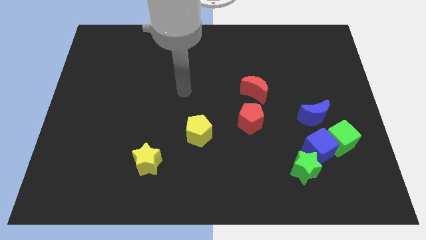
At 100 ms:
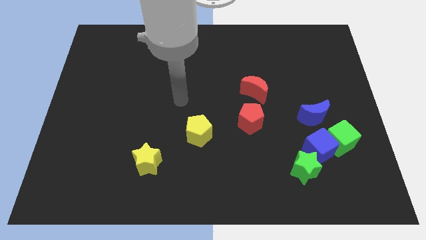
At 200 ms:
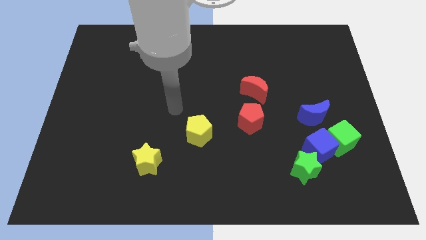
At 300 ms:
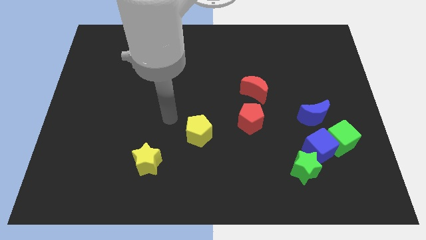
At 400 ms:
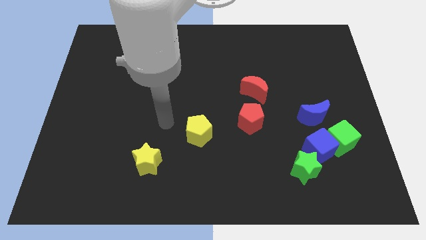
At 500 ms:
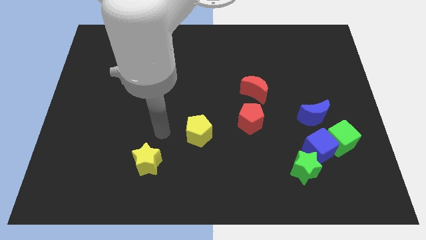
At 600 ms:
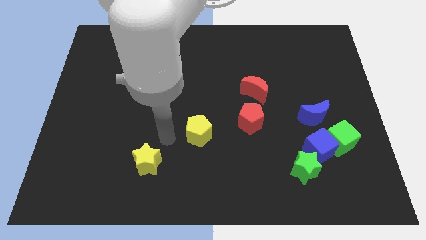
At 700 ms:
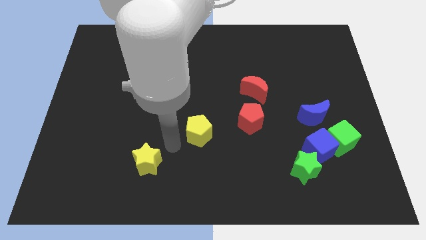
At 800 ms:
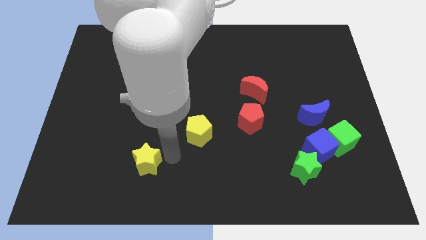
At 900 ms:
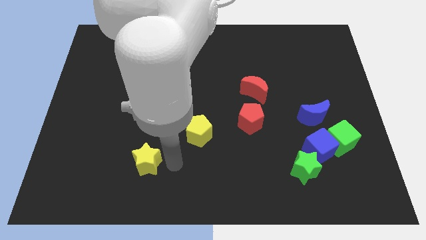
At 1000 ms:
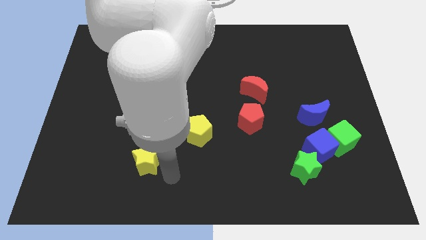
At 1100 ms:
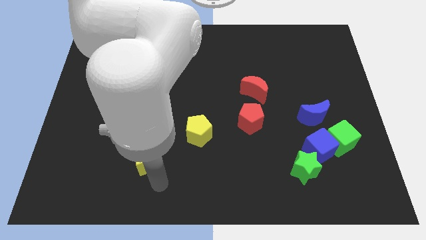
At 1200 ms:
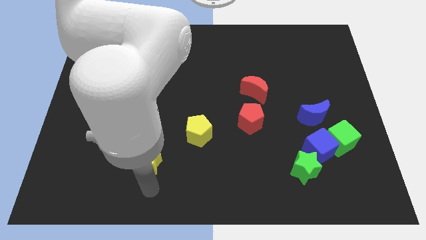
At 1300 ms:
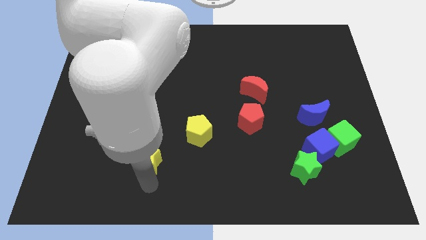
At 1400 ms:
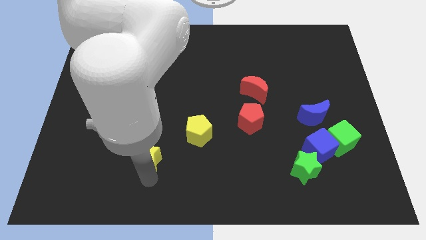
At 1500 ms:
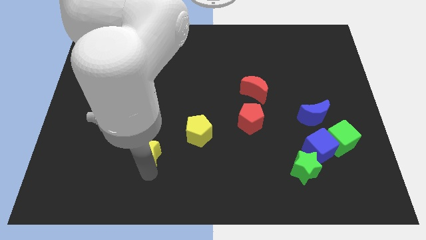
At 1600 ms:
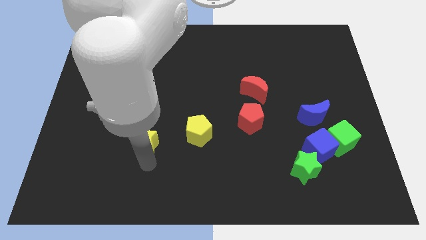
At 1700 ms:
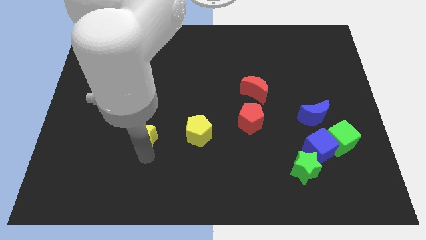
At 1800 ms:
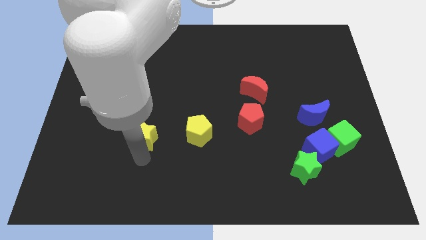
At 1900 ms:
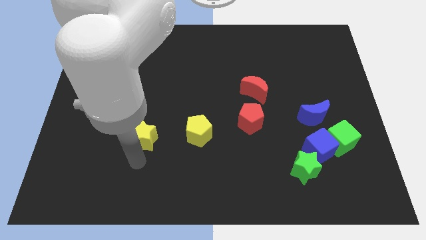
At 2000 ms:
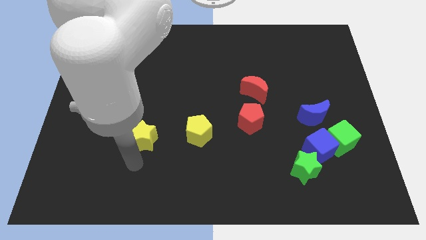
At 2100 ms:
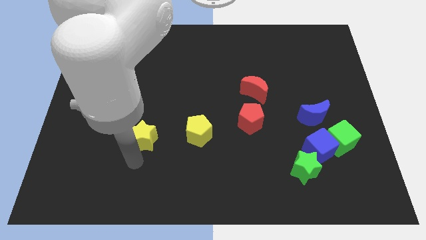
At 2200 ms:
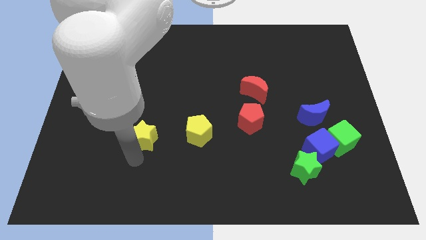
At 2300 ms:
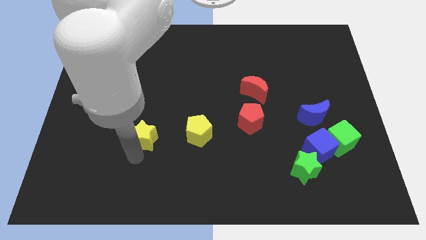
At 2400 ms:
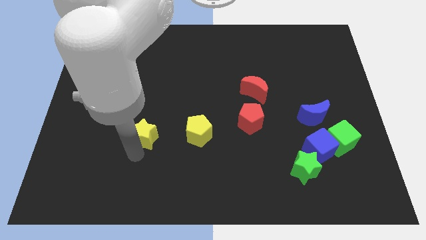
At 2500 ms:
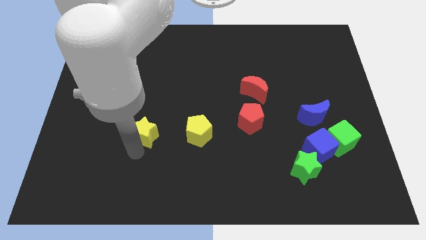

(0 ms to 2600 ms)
slide the yellow star a little bit up

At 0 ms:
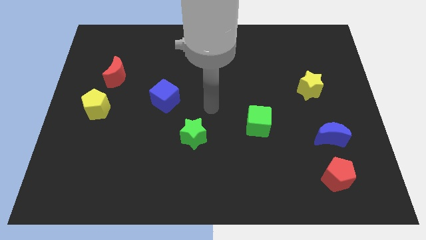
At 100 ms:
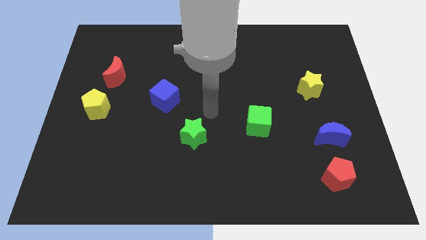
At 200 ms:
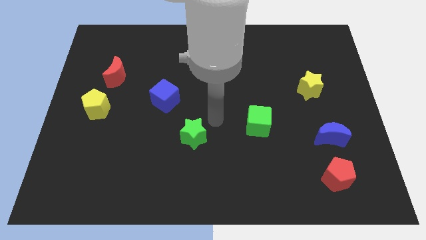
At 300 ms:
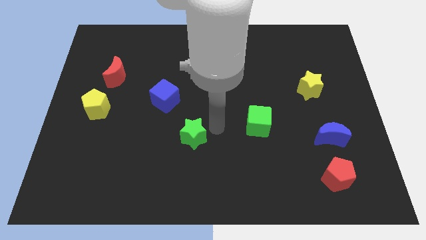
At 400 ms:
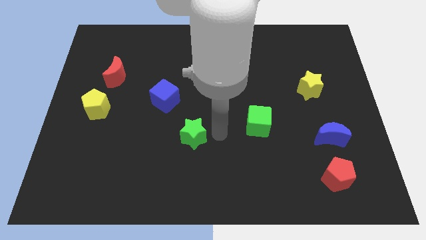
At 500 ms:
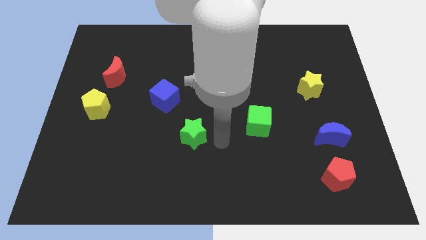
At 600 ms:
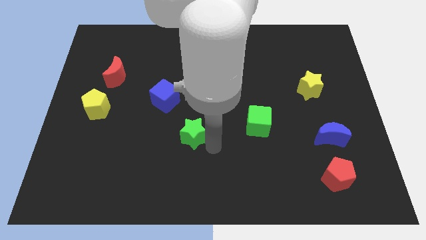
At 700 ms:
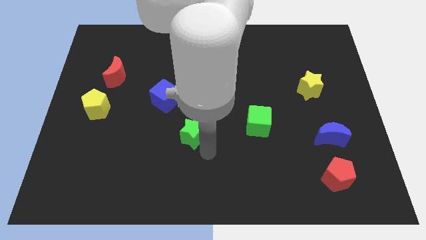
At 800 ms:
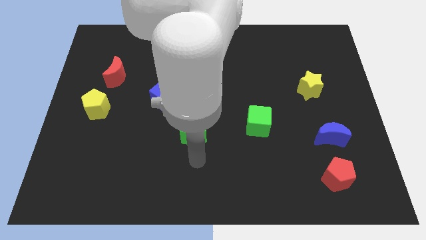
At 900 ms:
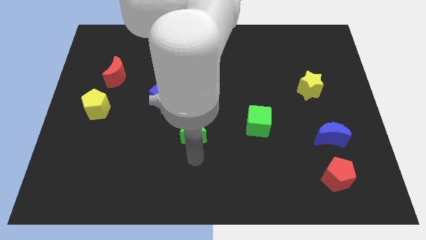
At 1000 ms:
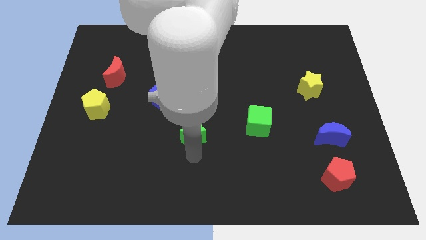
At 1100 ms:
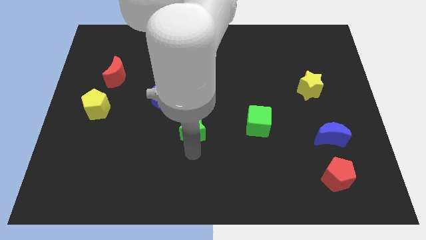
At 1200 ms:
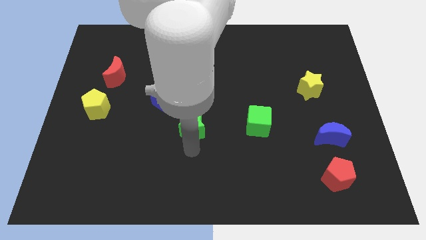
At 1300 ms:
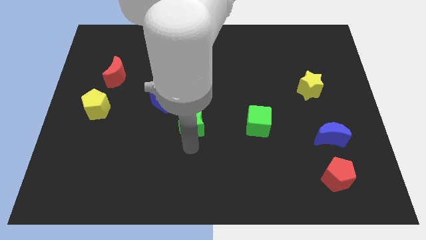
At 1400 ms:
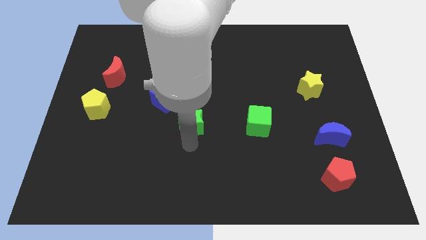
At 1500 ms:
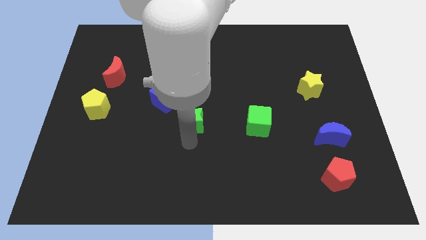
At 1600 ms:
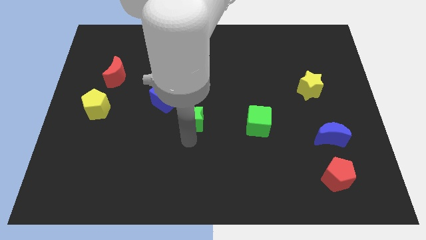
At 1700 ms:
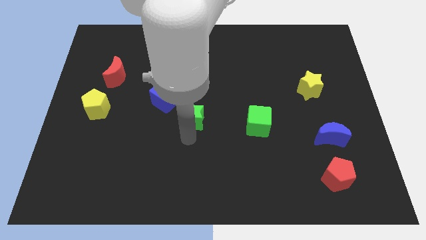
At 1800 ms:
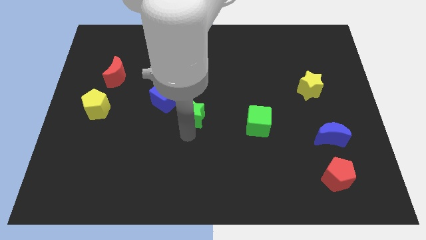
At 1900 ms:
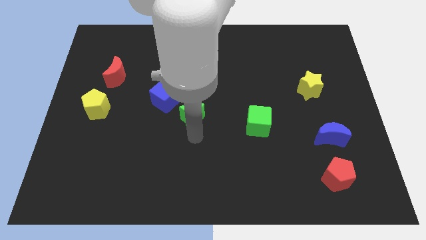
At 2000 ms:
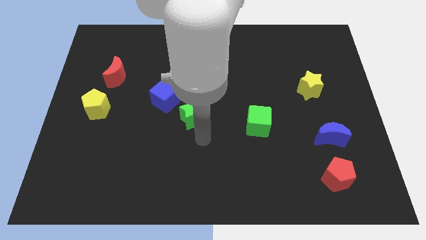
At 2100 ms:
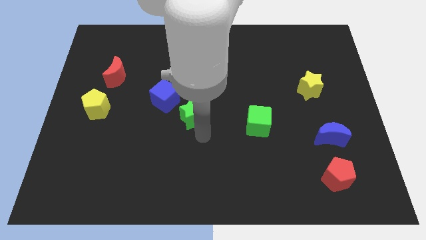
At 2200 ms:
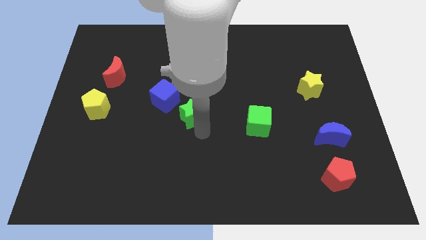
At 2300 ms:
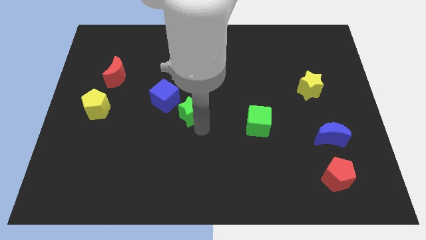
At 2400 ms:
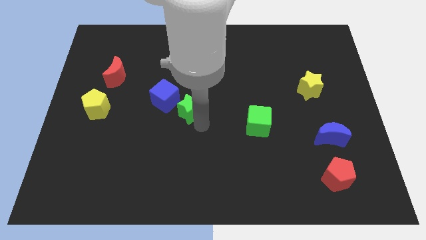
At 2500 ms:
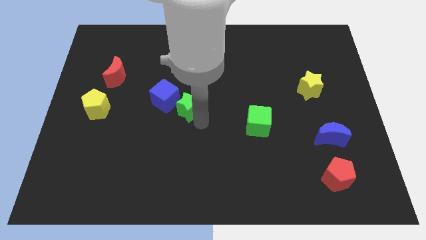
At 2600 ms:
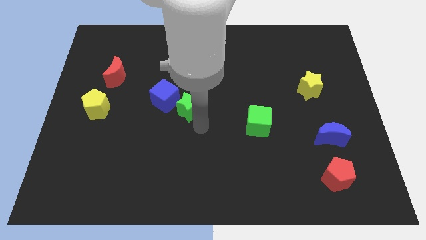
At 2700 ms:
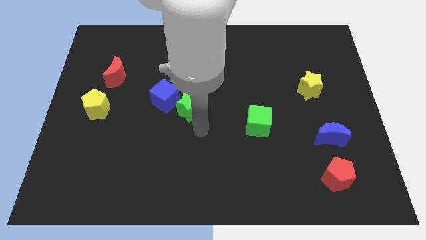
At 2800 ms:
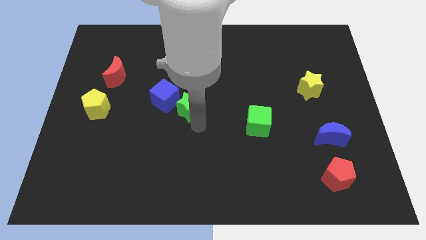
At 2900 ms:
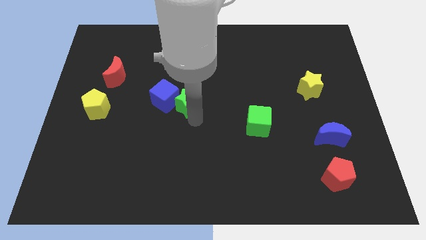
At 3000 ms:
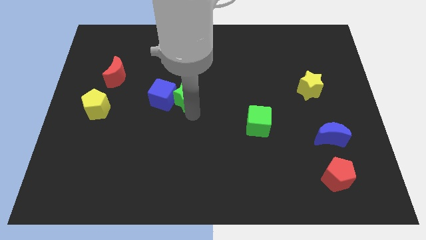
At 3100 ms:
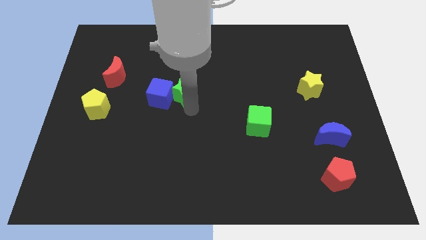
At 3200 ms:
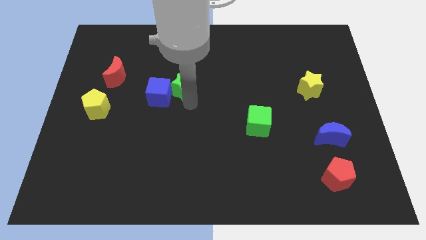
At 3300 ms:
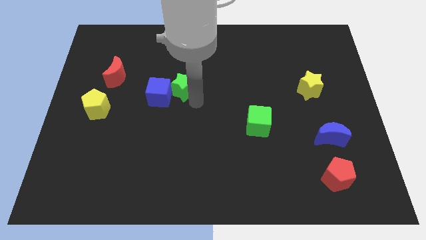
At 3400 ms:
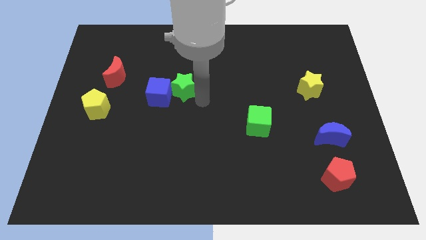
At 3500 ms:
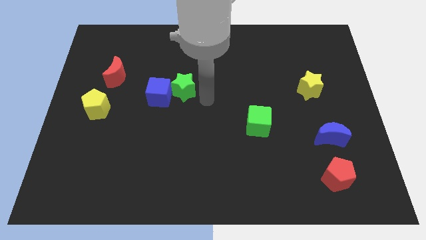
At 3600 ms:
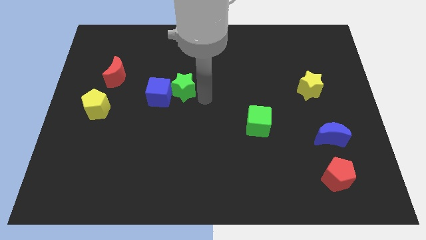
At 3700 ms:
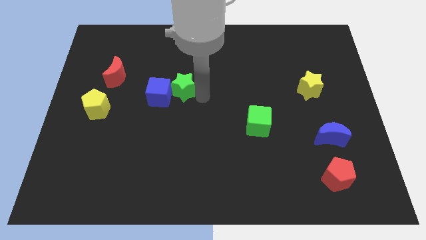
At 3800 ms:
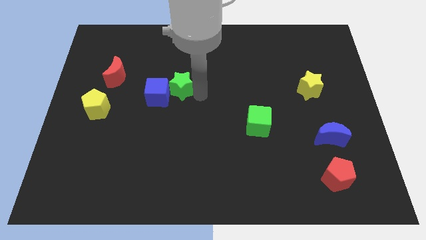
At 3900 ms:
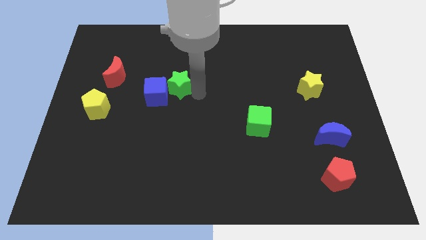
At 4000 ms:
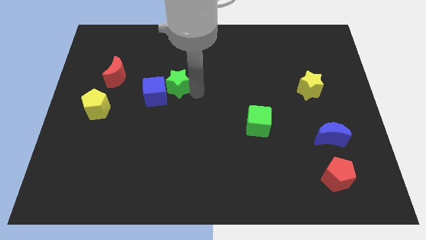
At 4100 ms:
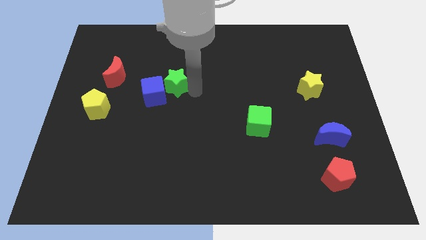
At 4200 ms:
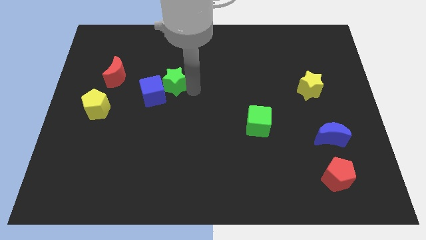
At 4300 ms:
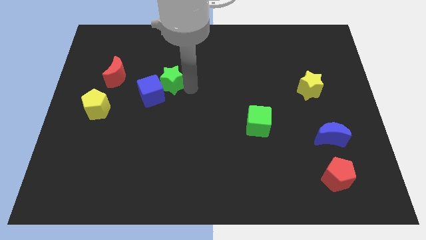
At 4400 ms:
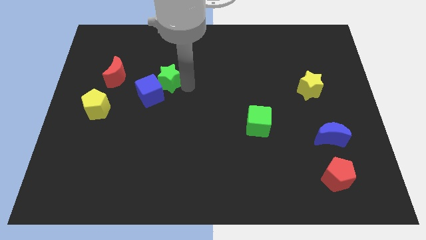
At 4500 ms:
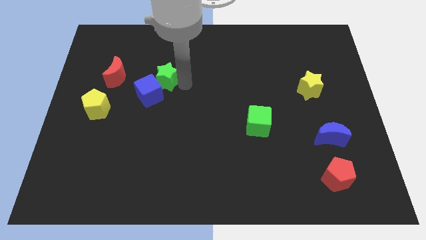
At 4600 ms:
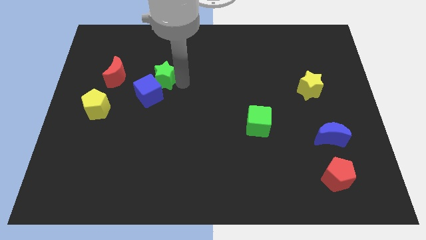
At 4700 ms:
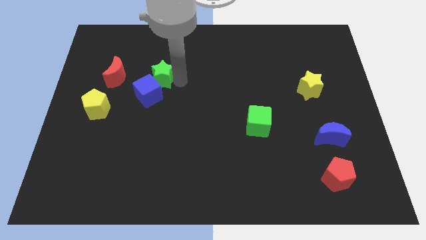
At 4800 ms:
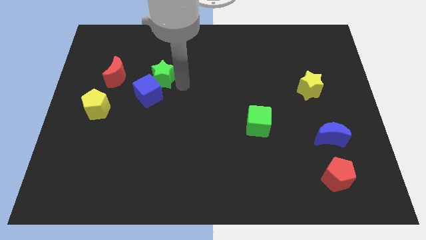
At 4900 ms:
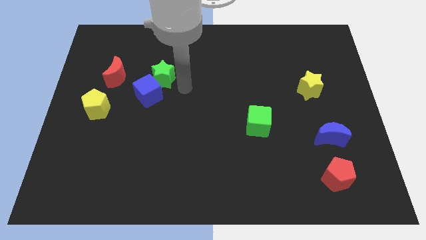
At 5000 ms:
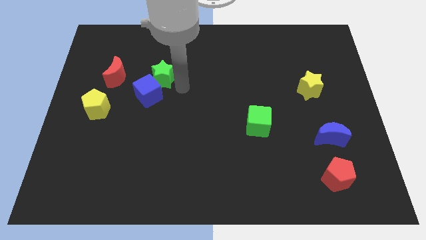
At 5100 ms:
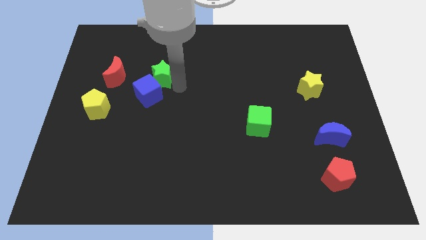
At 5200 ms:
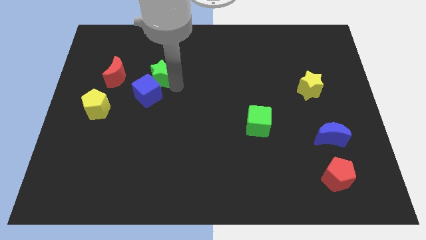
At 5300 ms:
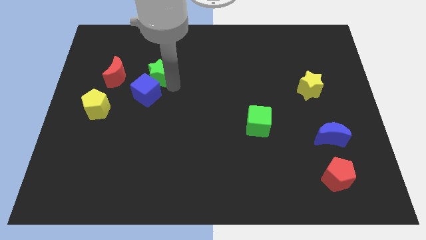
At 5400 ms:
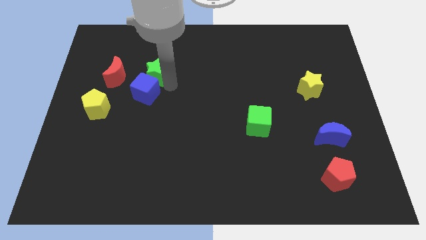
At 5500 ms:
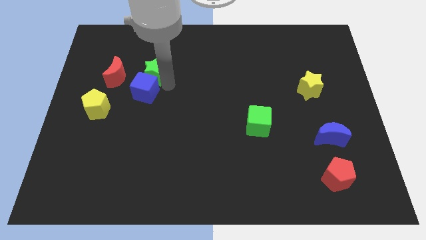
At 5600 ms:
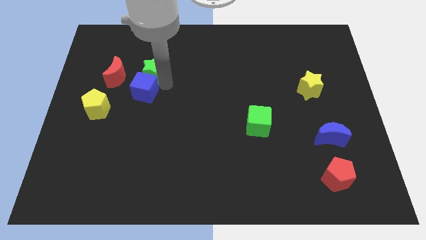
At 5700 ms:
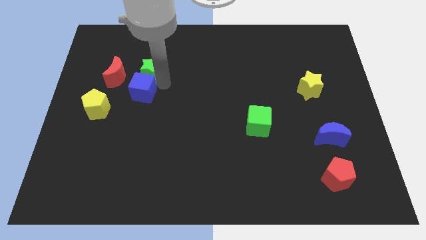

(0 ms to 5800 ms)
move the green star up and left

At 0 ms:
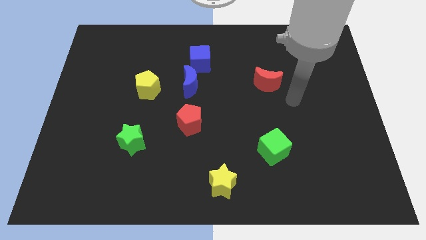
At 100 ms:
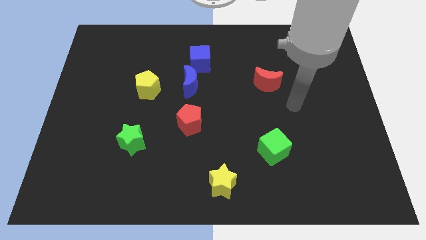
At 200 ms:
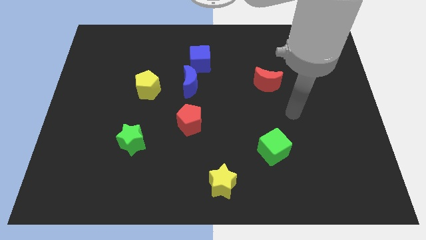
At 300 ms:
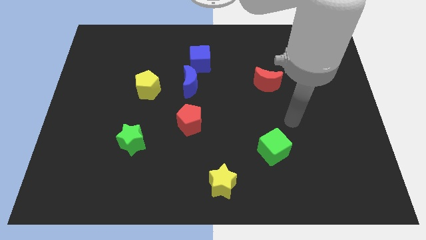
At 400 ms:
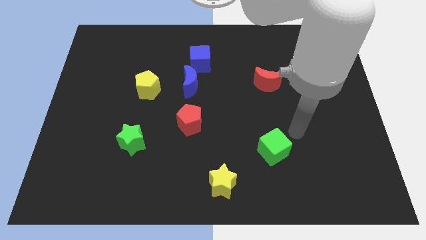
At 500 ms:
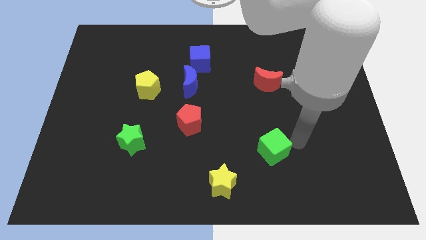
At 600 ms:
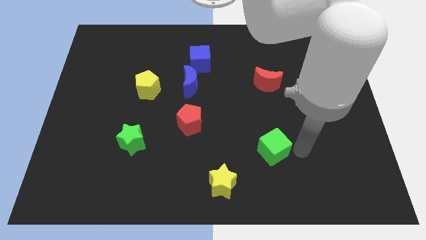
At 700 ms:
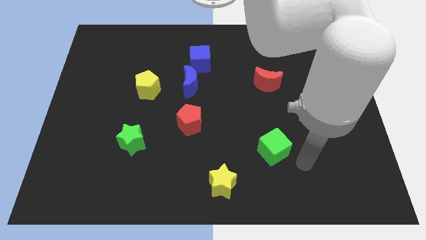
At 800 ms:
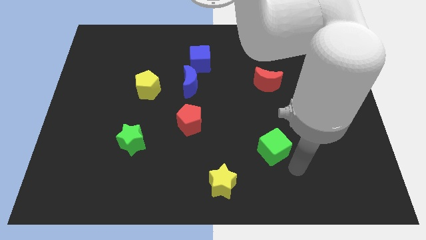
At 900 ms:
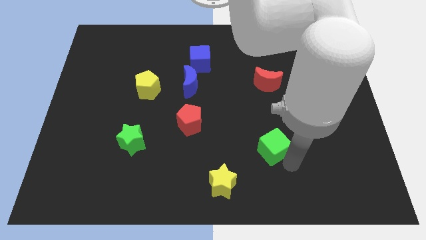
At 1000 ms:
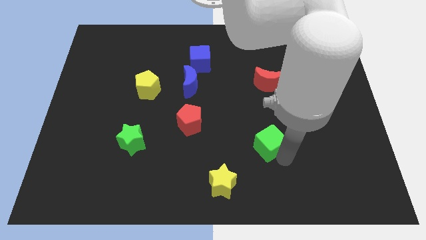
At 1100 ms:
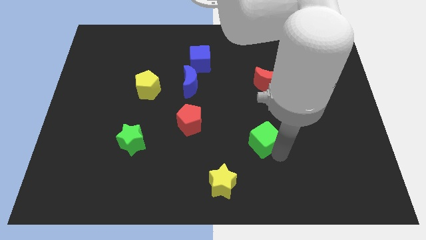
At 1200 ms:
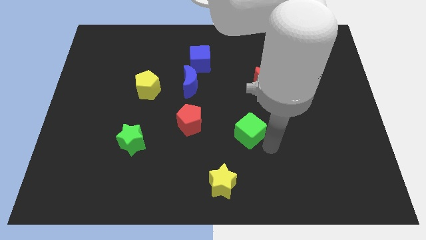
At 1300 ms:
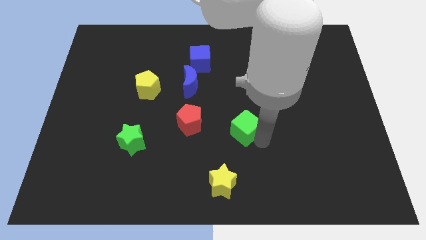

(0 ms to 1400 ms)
slide the green cube somewhat diagonally up and to the left
